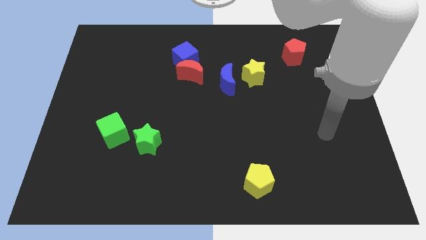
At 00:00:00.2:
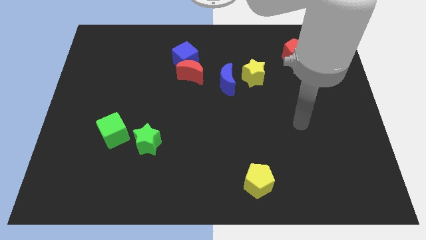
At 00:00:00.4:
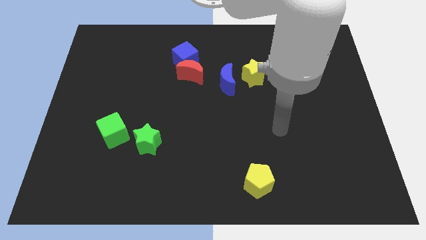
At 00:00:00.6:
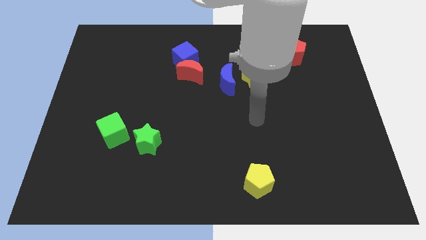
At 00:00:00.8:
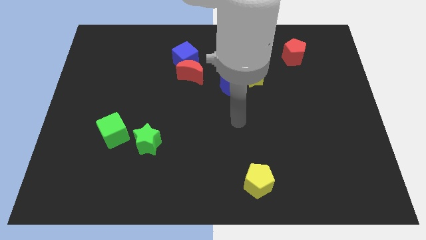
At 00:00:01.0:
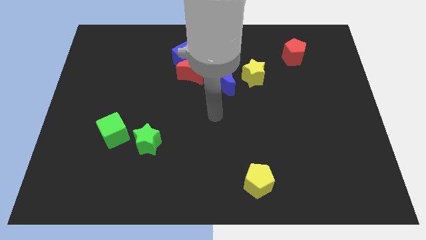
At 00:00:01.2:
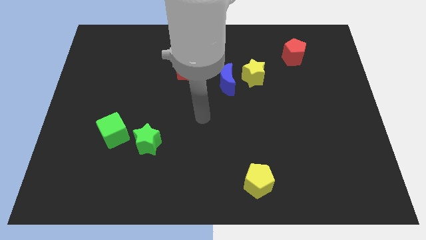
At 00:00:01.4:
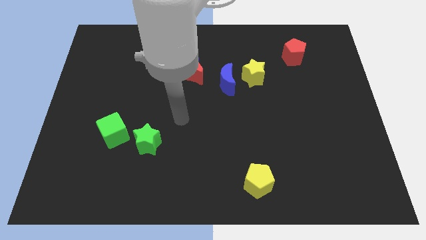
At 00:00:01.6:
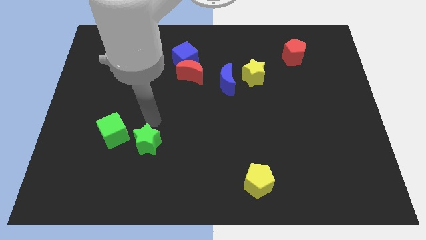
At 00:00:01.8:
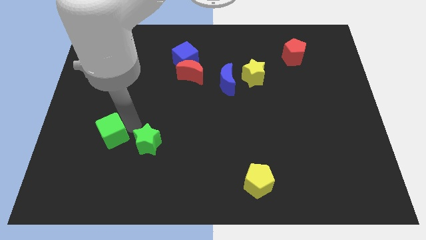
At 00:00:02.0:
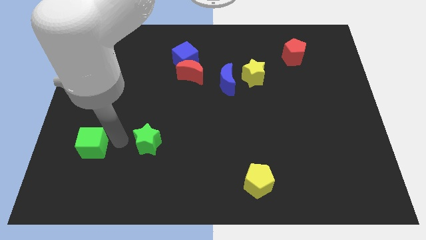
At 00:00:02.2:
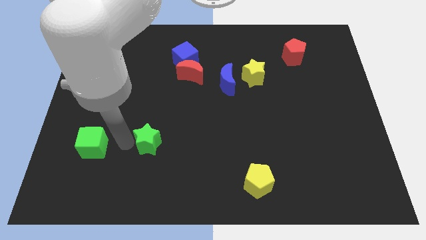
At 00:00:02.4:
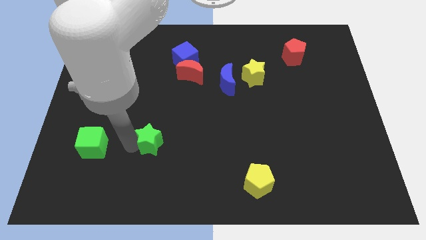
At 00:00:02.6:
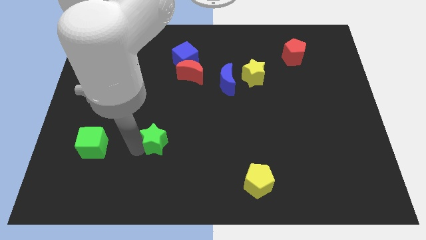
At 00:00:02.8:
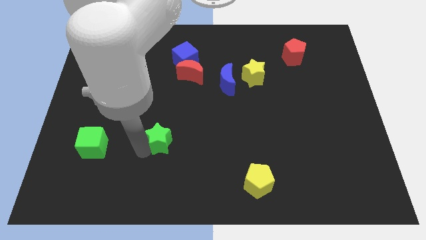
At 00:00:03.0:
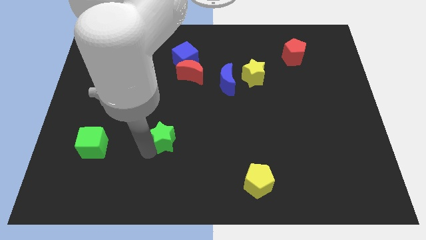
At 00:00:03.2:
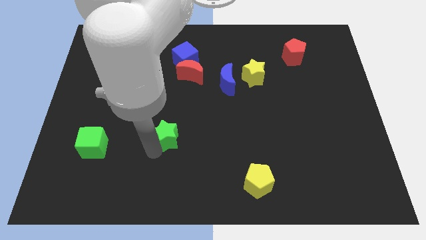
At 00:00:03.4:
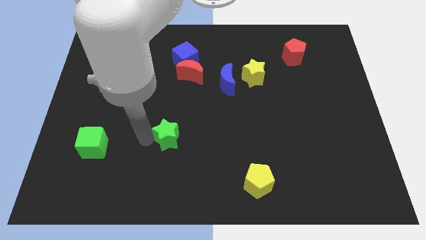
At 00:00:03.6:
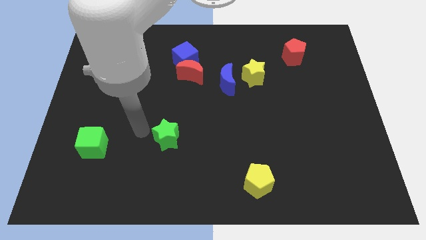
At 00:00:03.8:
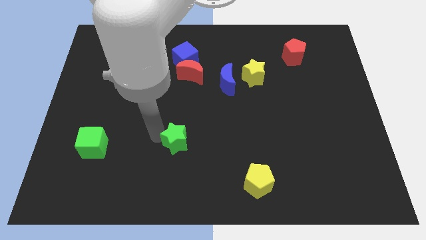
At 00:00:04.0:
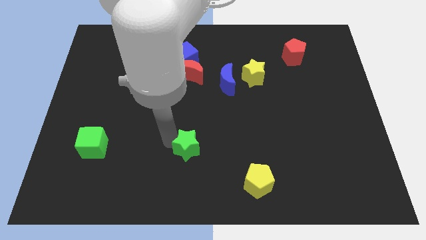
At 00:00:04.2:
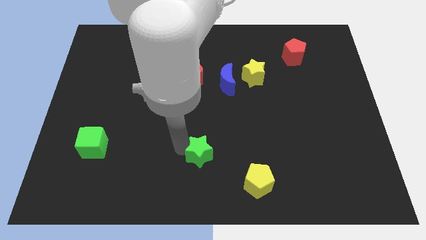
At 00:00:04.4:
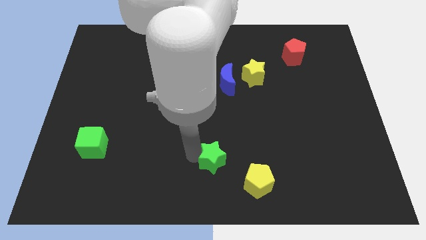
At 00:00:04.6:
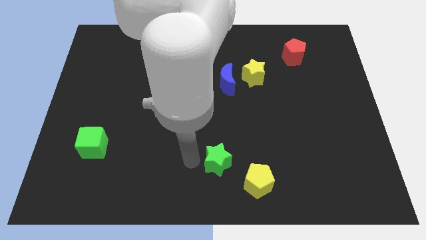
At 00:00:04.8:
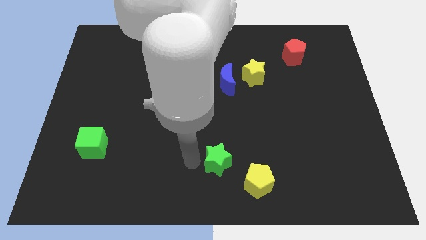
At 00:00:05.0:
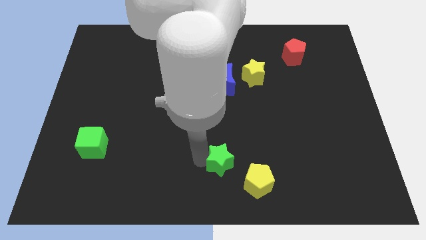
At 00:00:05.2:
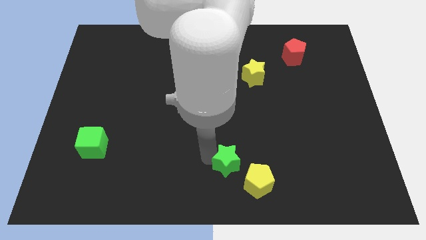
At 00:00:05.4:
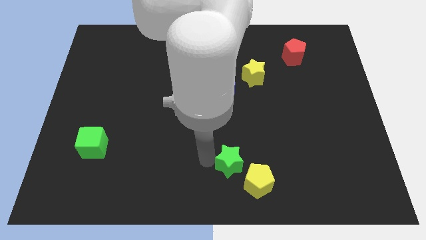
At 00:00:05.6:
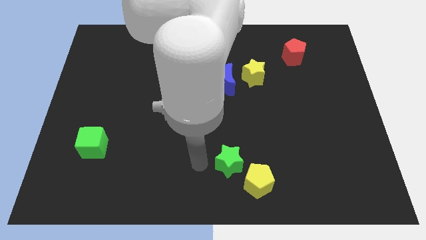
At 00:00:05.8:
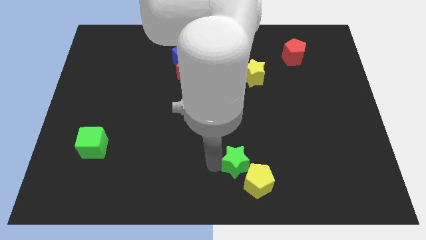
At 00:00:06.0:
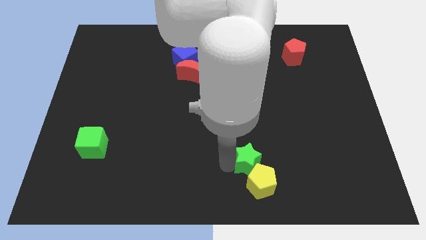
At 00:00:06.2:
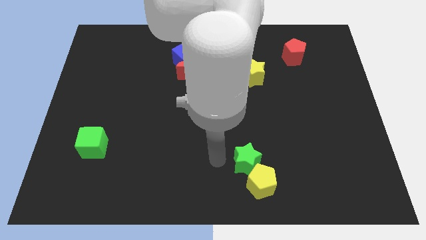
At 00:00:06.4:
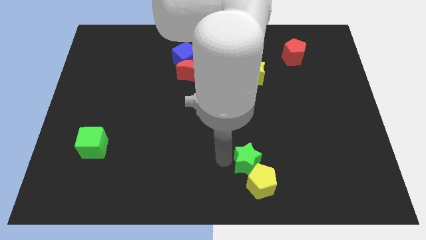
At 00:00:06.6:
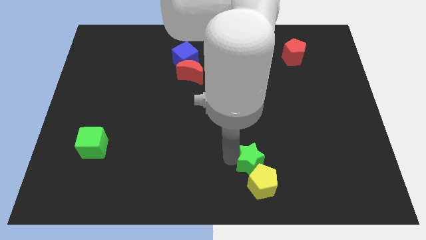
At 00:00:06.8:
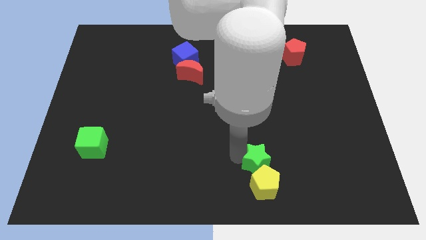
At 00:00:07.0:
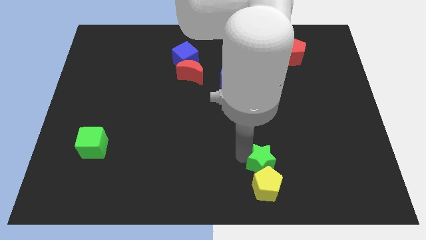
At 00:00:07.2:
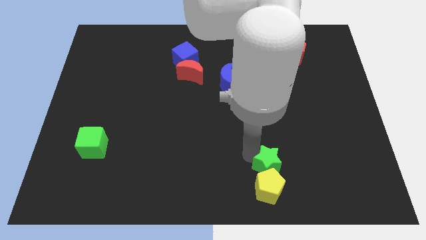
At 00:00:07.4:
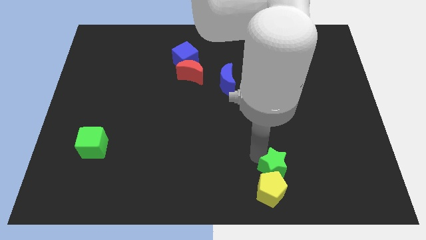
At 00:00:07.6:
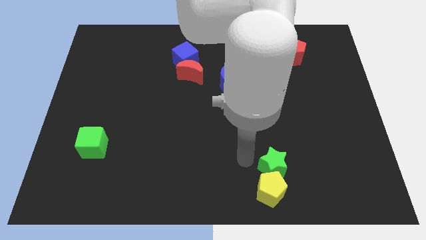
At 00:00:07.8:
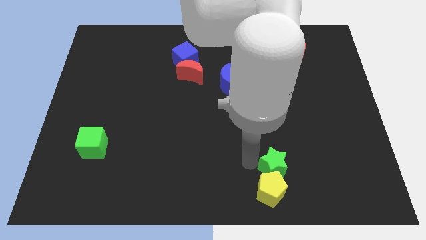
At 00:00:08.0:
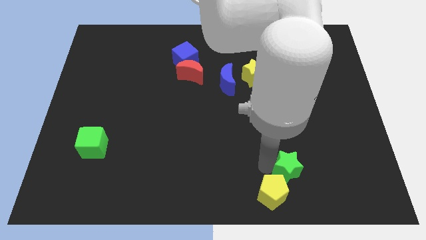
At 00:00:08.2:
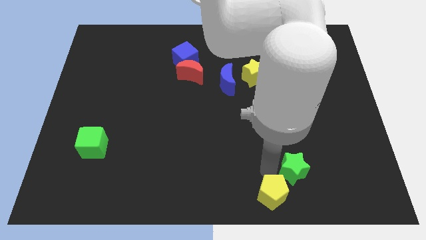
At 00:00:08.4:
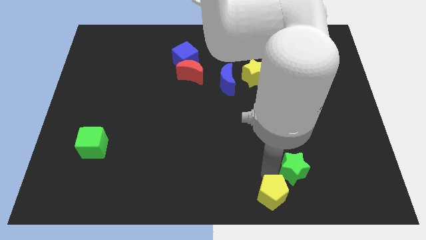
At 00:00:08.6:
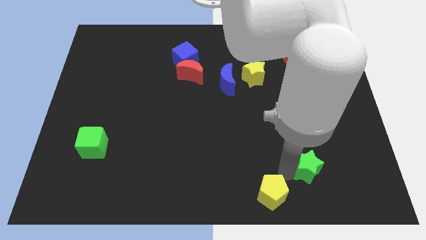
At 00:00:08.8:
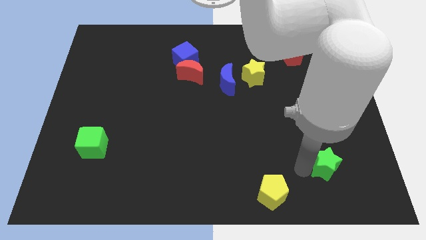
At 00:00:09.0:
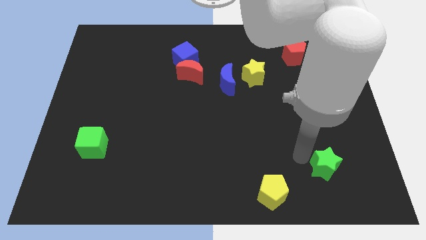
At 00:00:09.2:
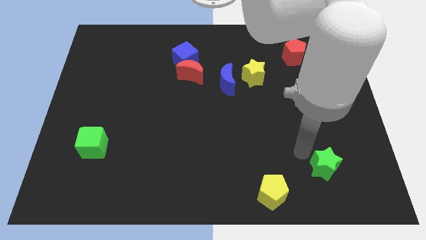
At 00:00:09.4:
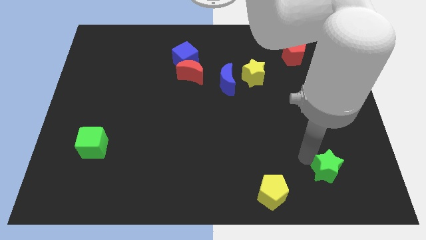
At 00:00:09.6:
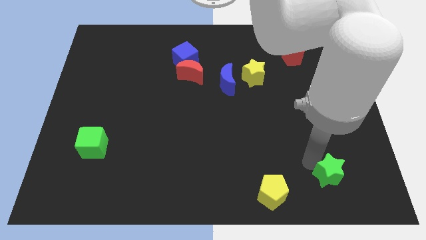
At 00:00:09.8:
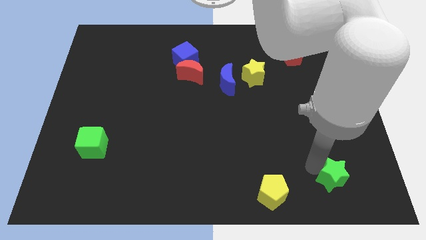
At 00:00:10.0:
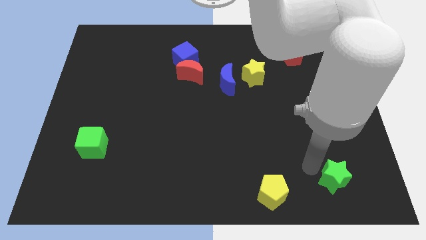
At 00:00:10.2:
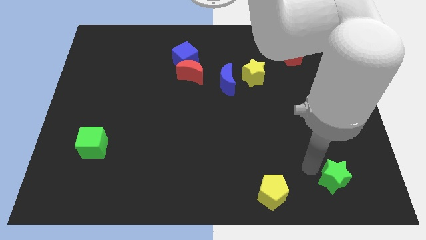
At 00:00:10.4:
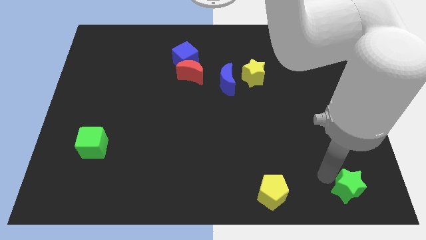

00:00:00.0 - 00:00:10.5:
push the green star to the bottom right corner
